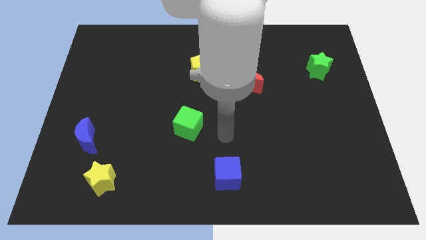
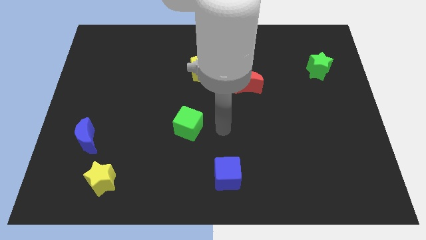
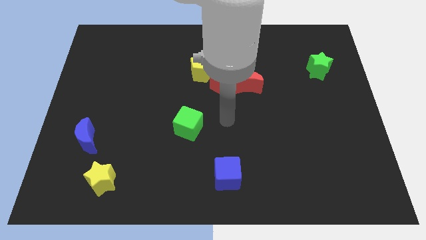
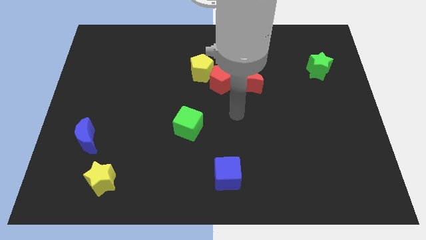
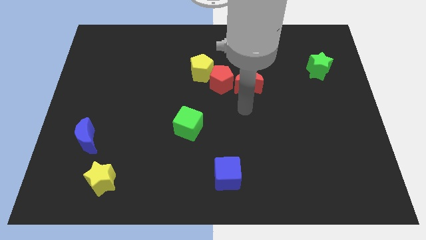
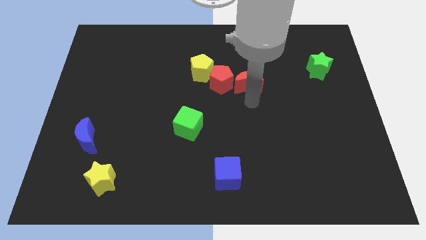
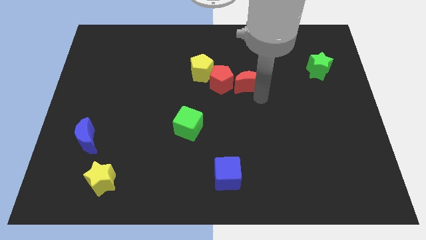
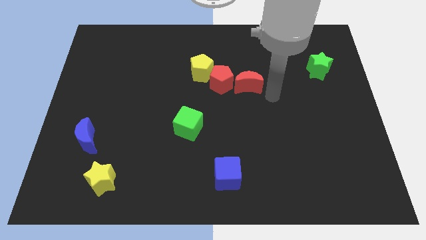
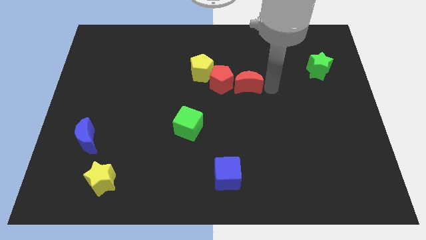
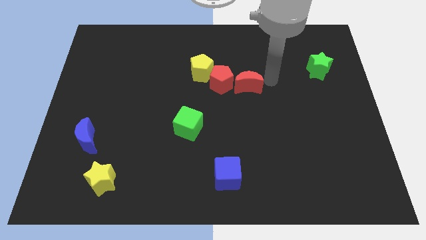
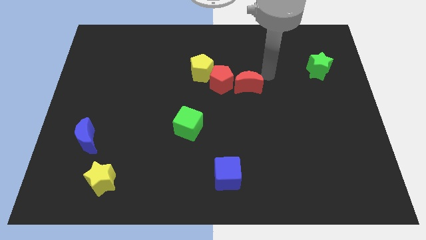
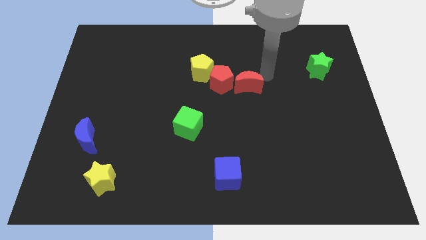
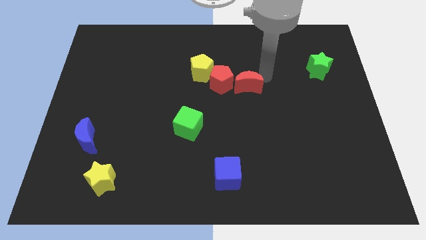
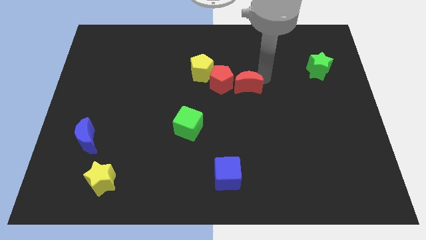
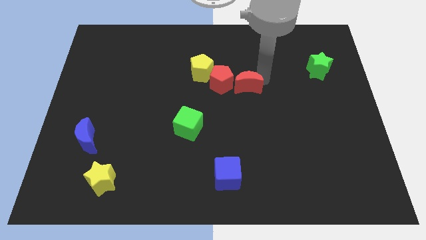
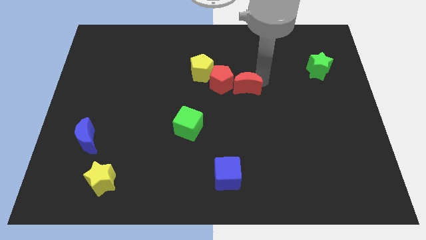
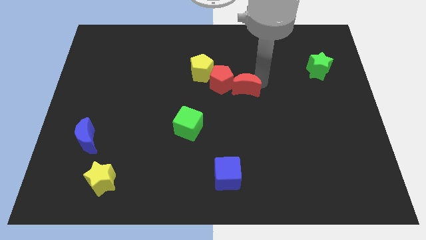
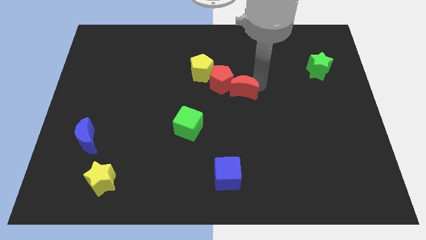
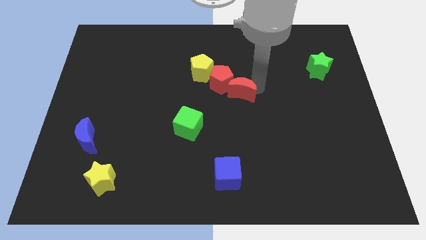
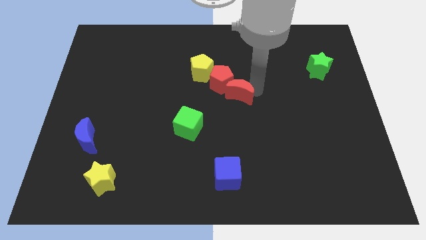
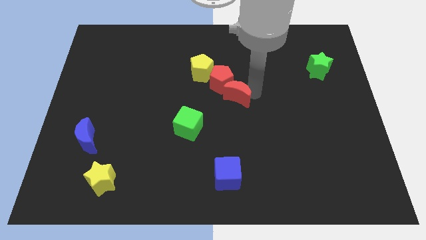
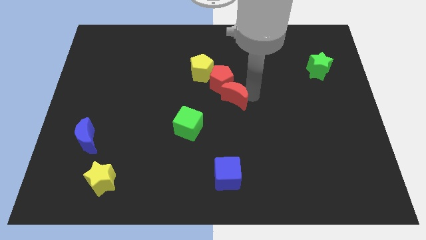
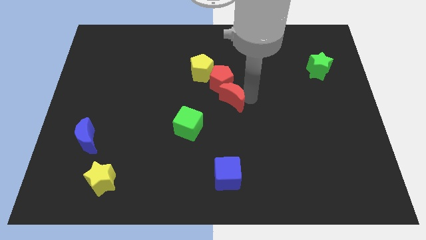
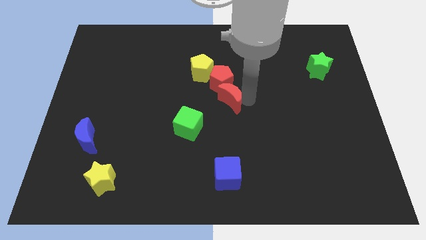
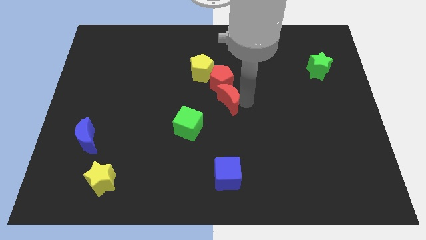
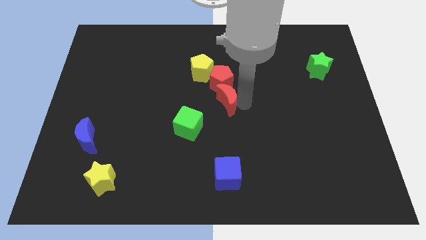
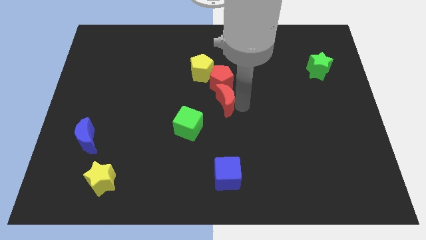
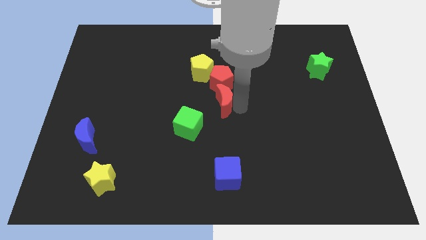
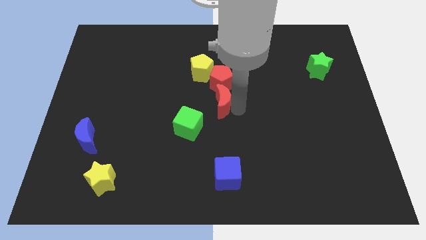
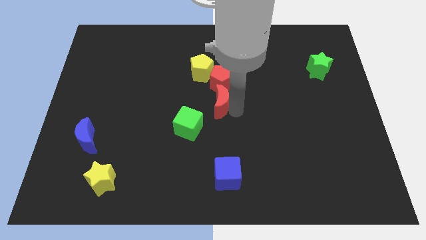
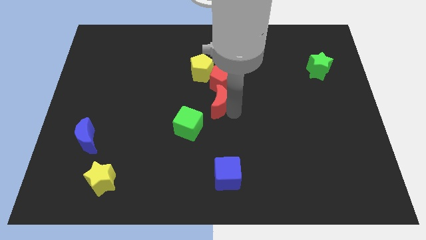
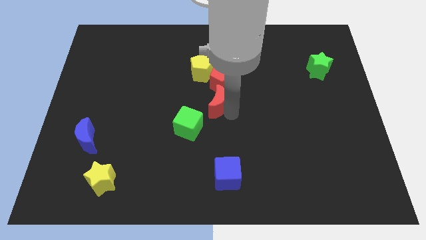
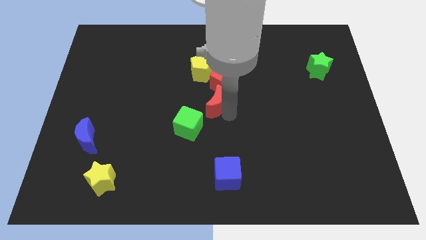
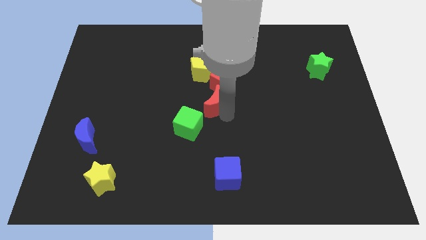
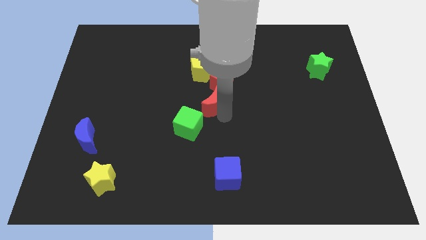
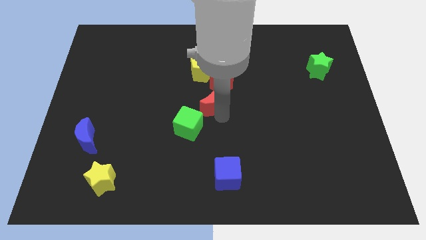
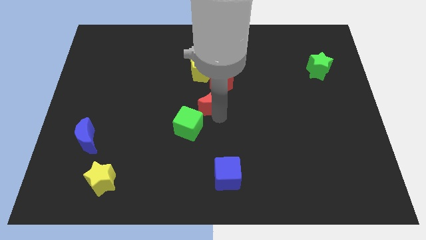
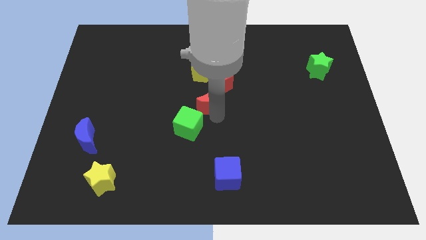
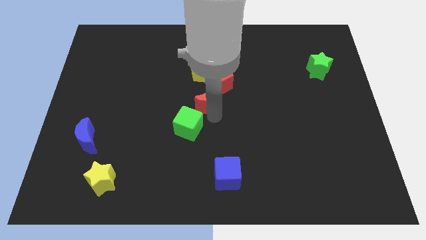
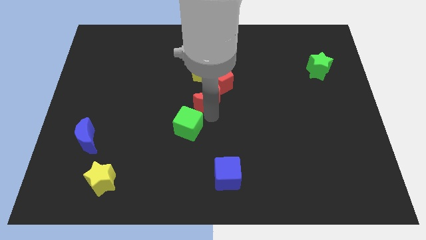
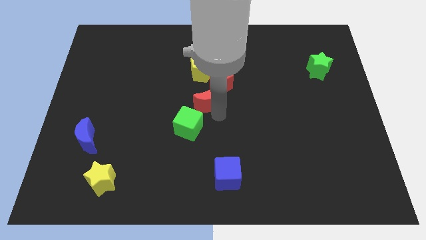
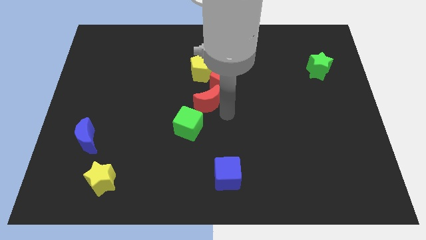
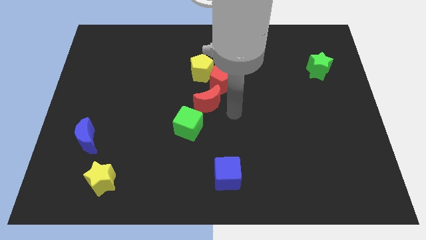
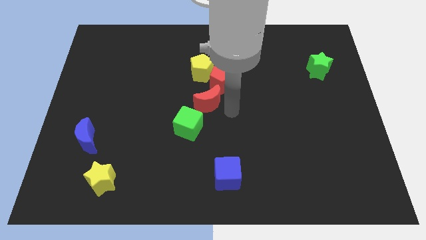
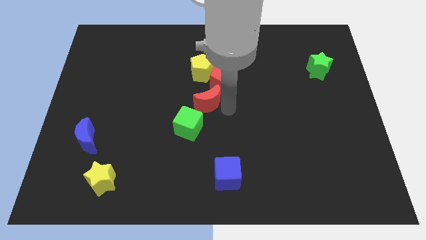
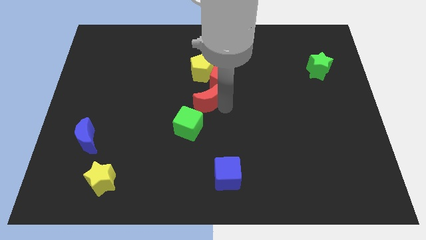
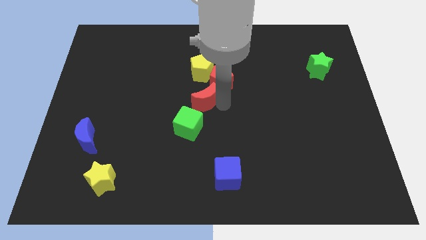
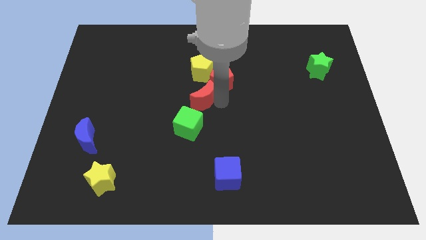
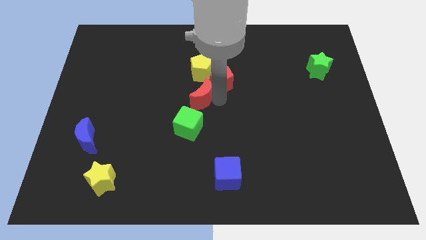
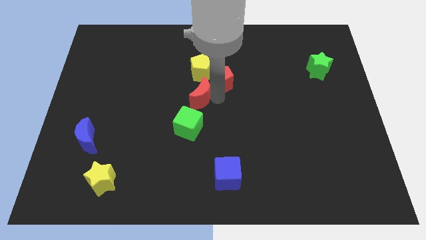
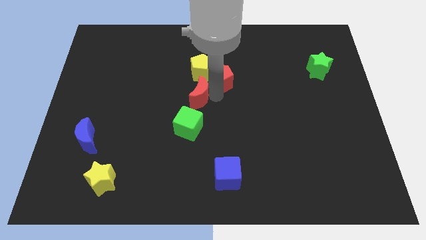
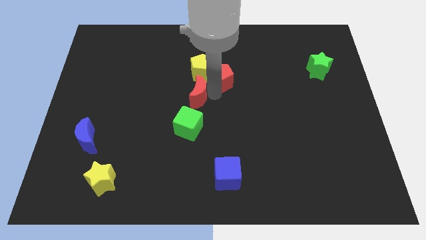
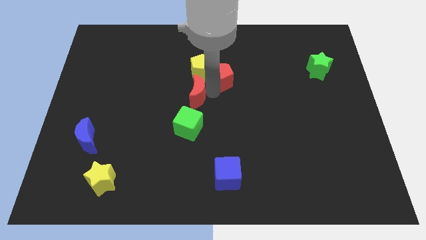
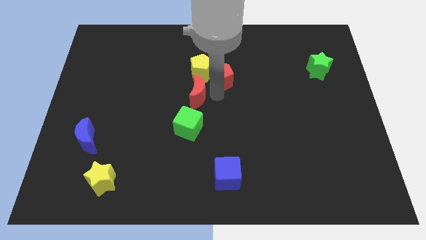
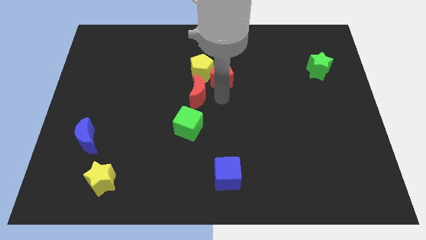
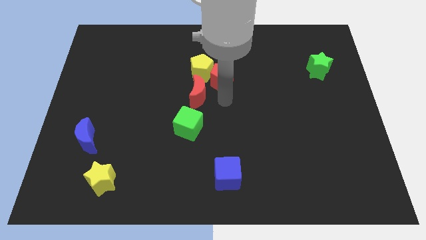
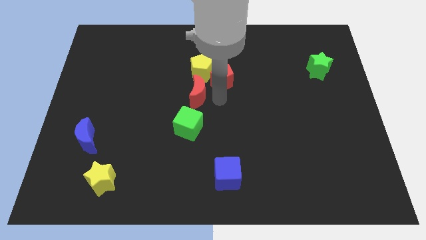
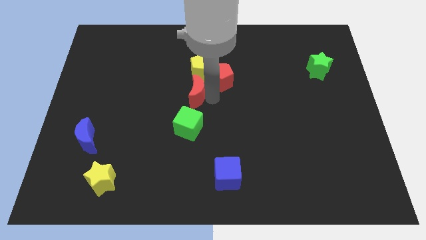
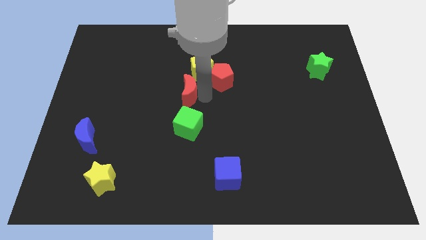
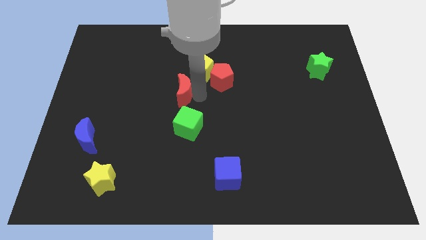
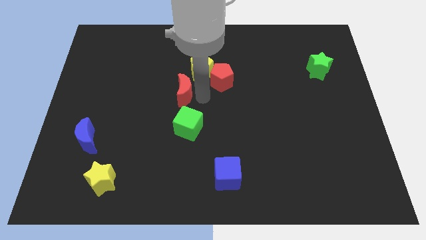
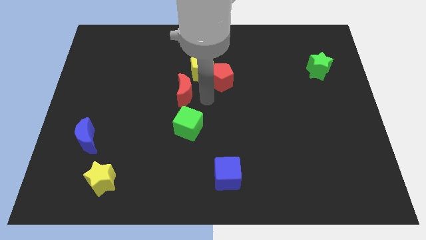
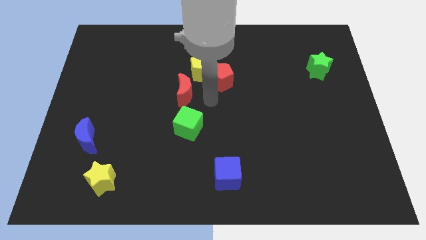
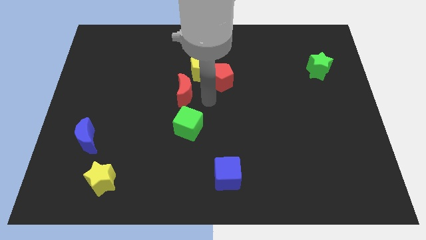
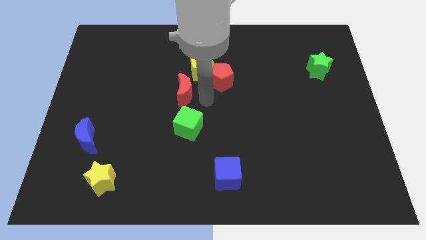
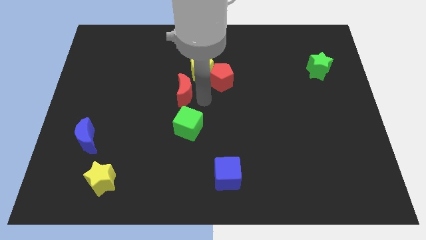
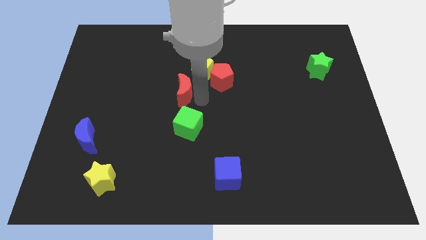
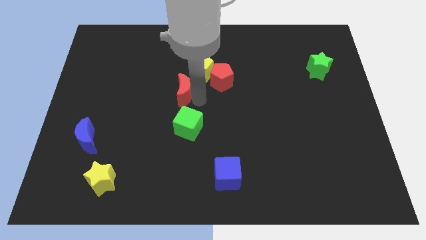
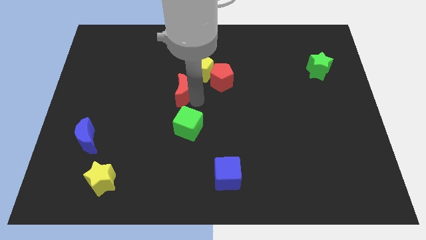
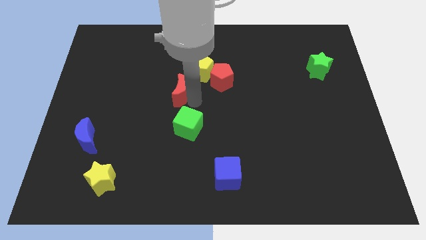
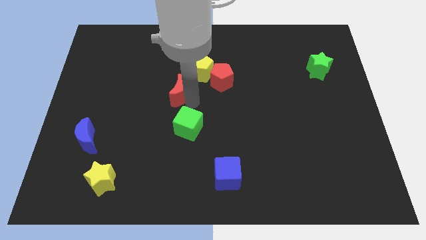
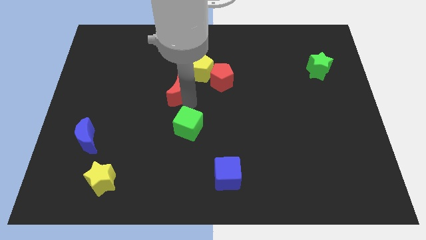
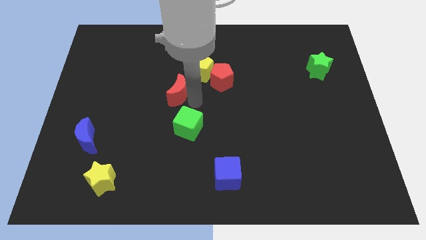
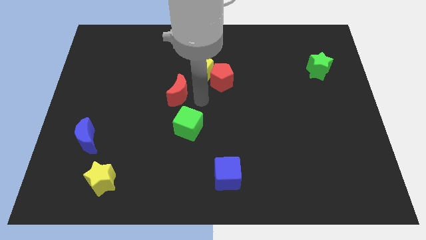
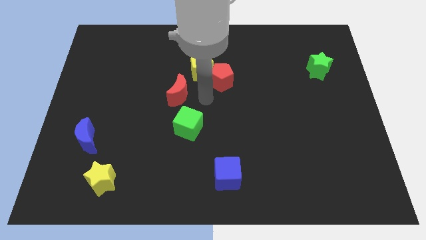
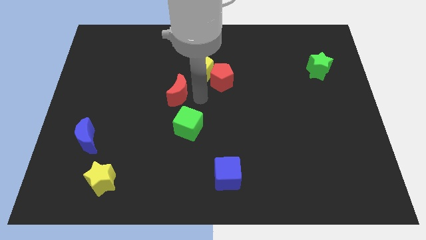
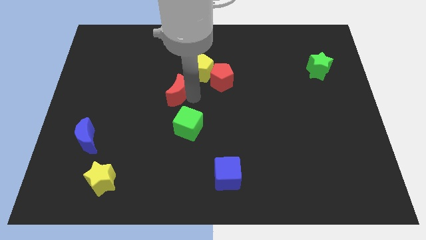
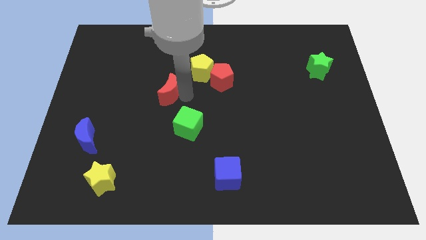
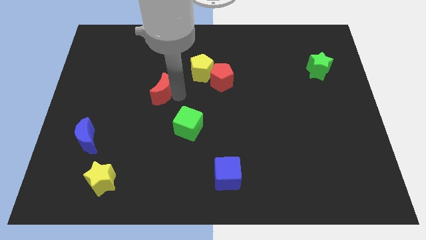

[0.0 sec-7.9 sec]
move the red moon to the left
